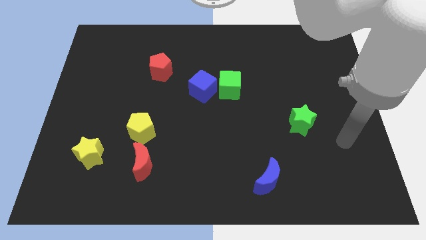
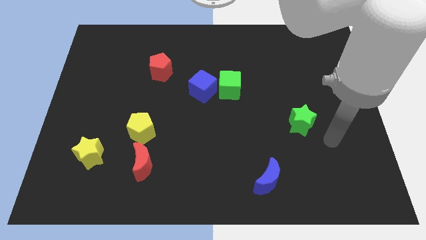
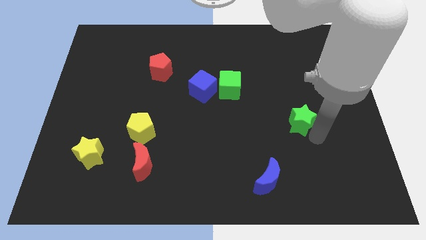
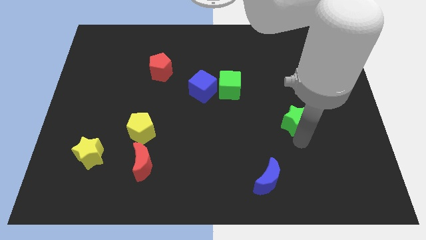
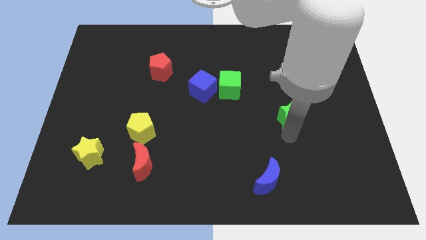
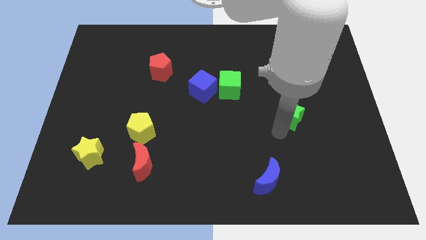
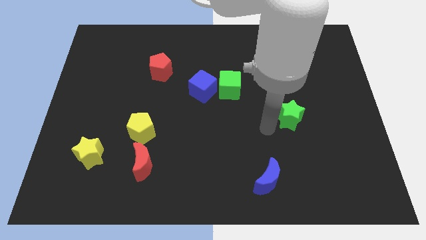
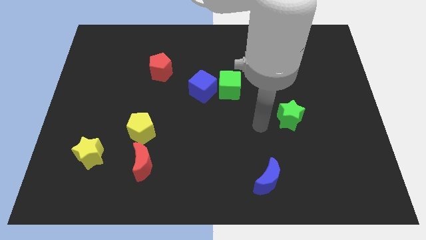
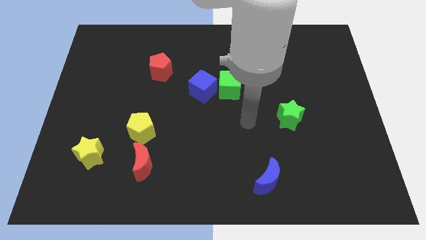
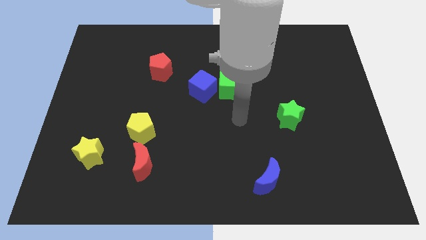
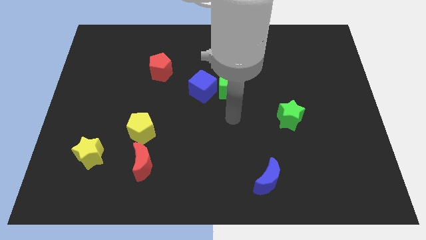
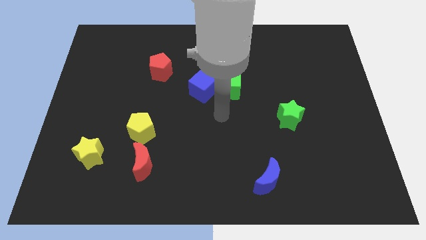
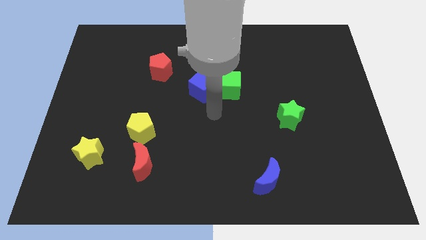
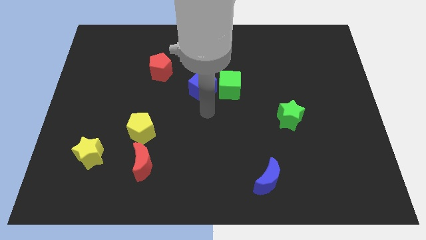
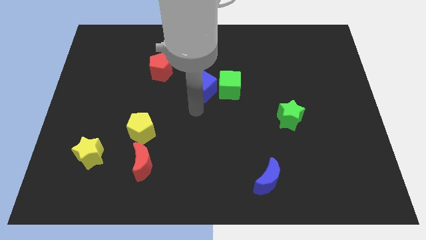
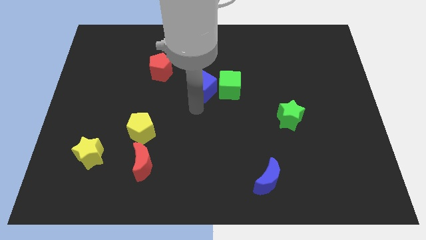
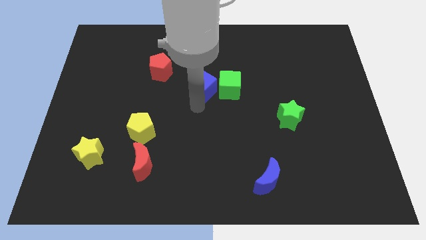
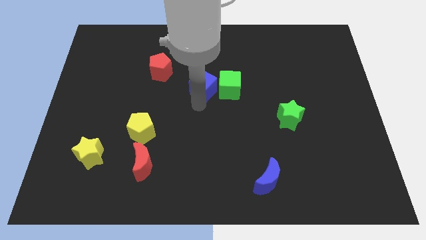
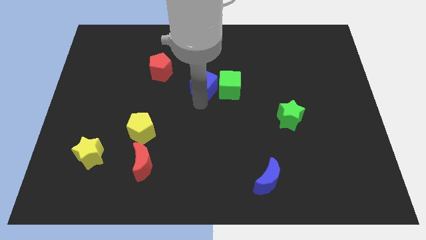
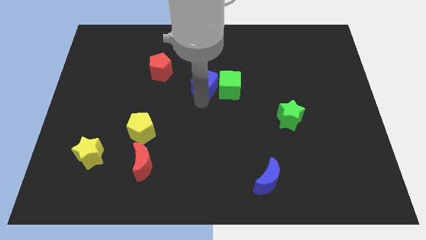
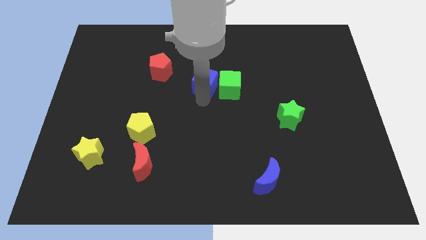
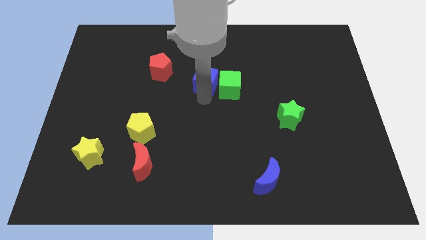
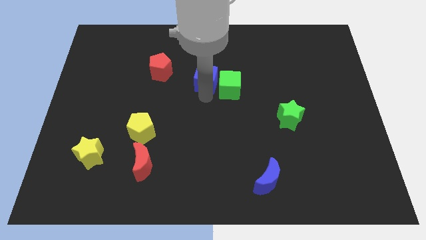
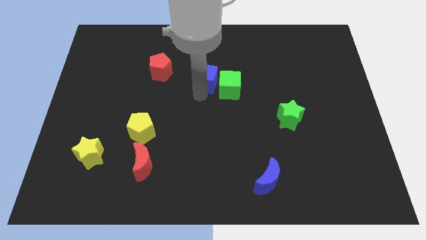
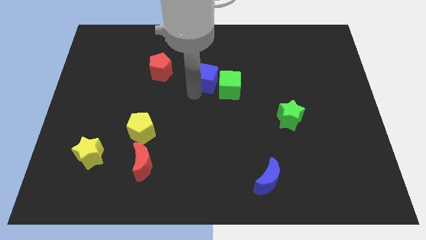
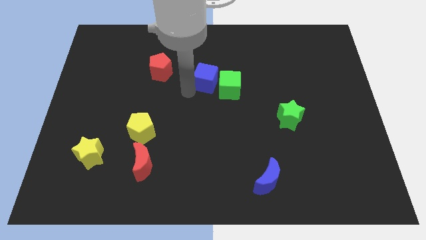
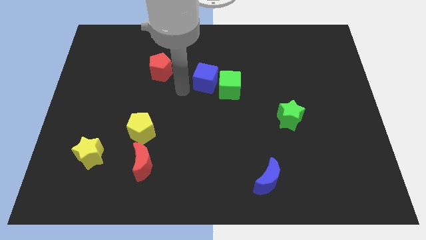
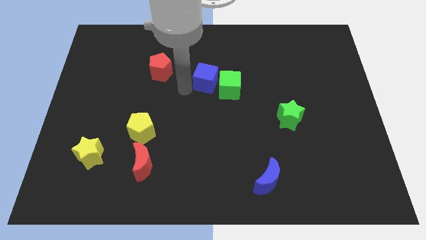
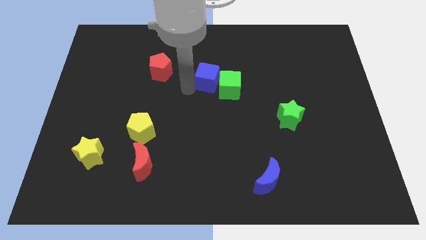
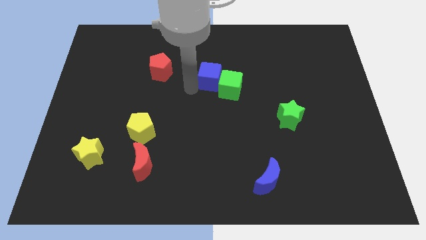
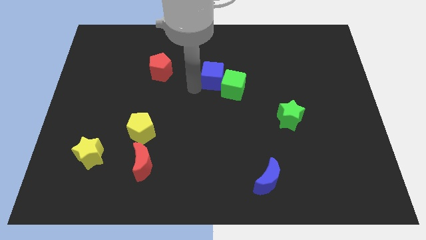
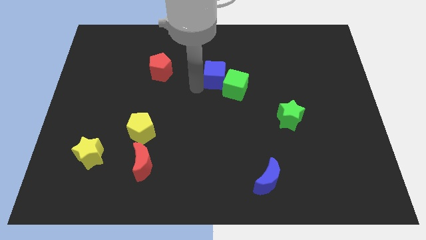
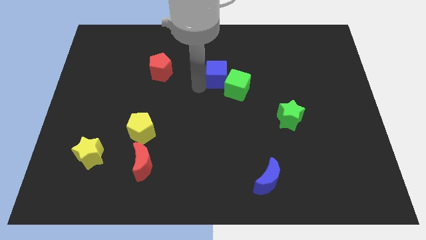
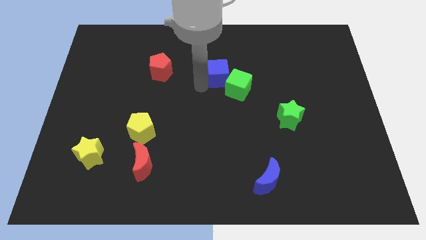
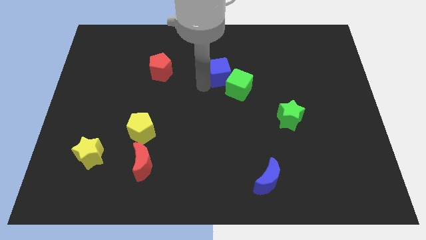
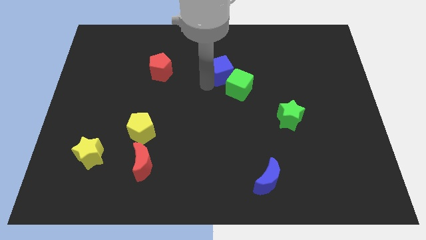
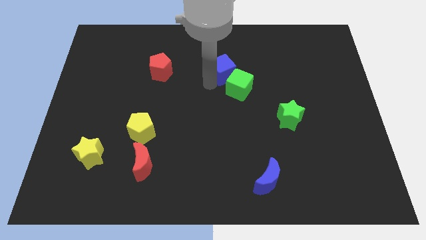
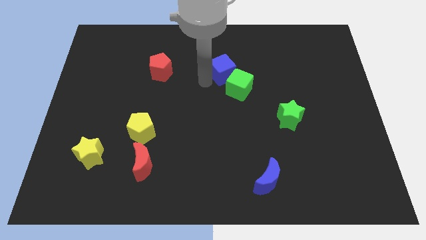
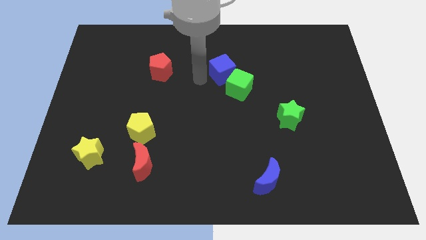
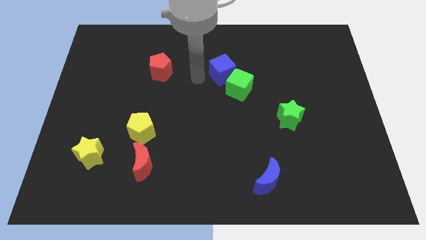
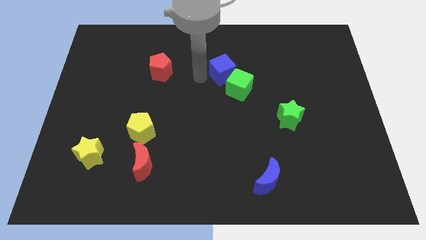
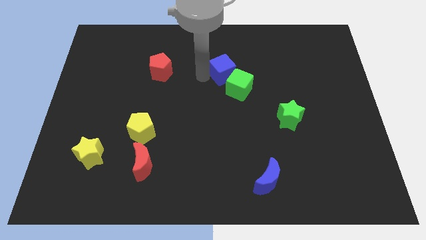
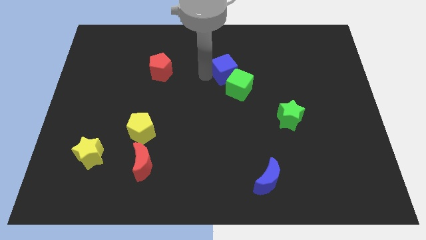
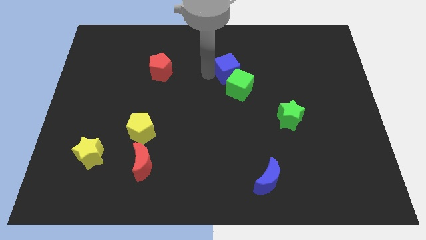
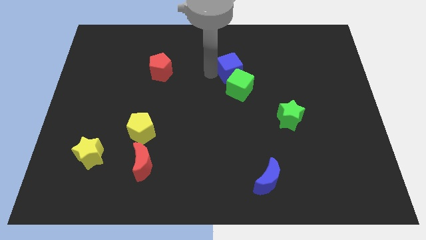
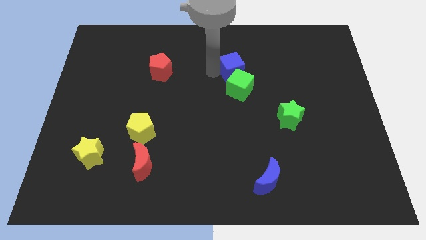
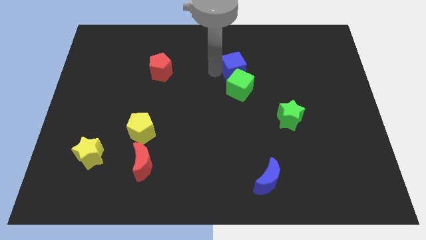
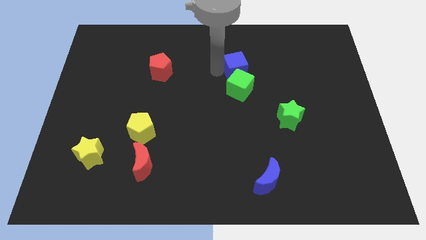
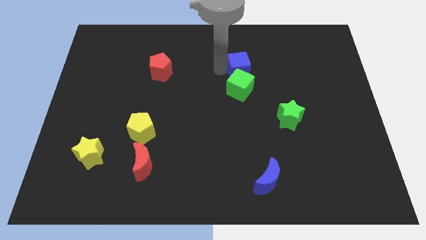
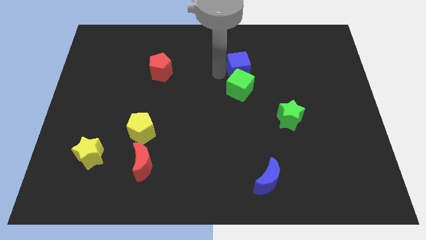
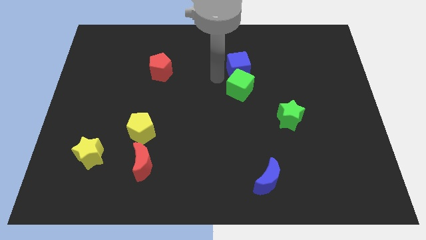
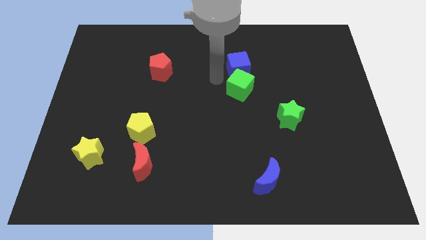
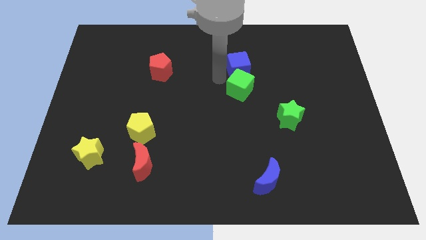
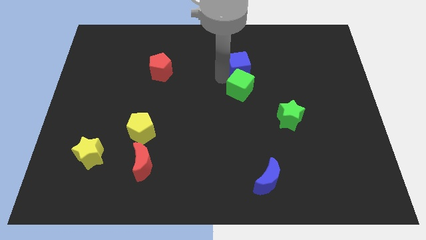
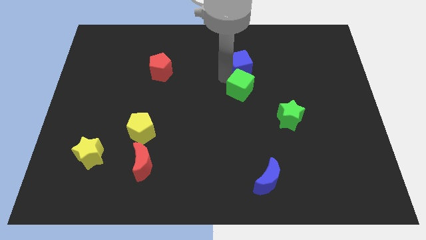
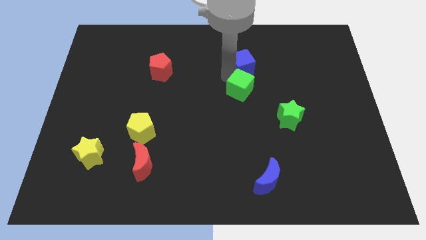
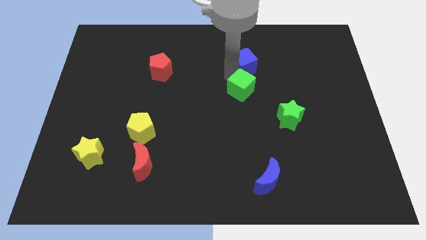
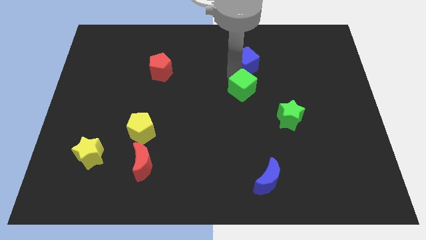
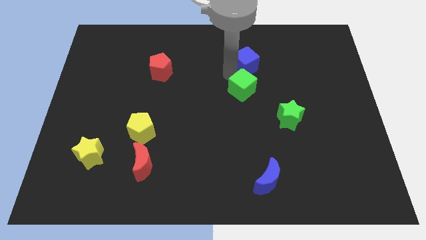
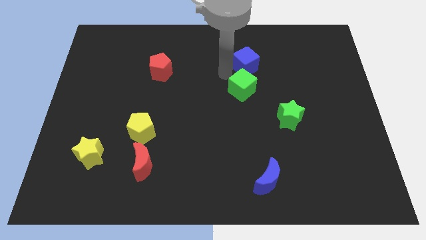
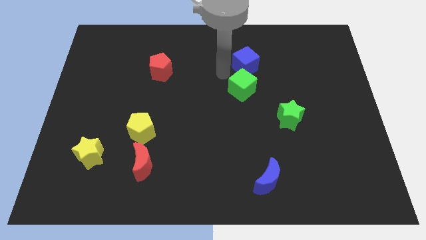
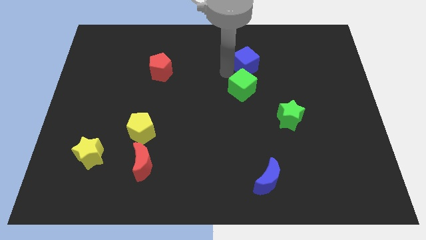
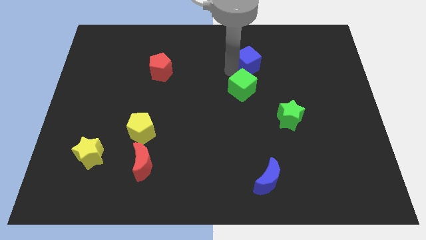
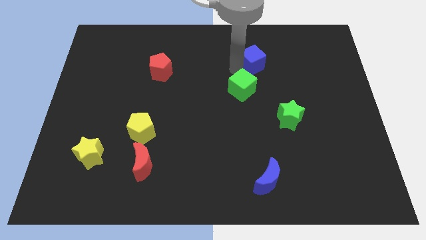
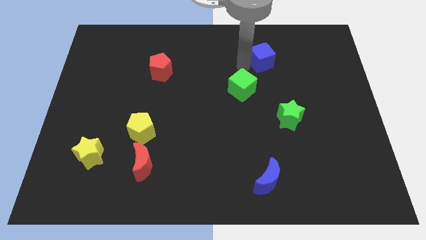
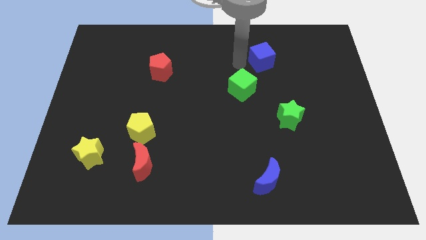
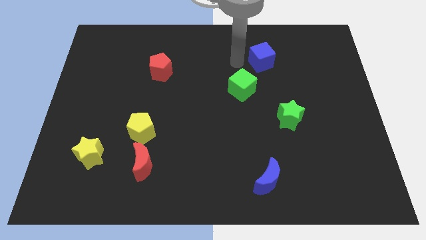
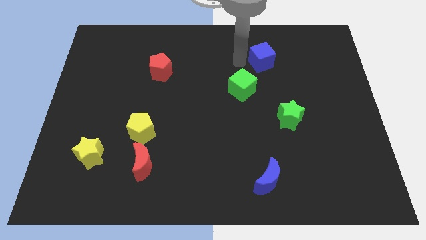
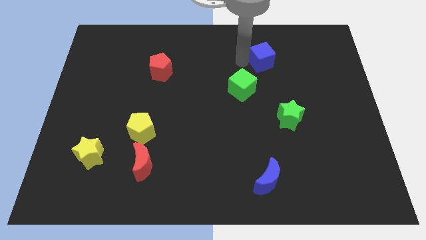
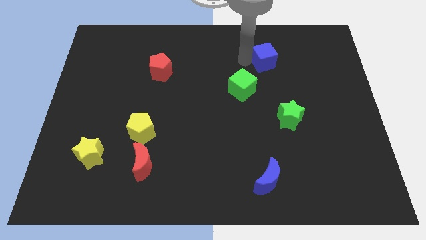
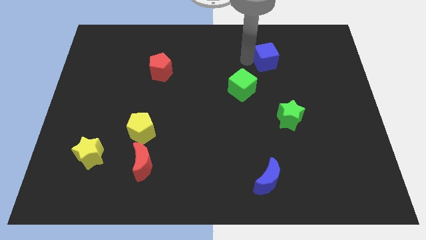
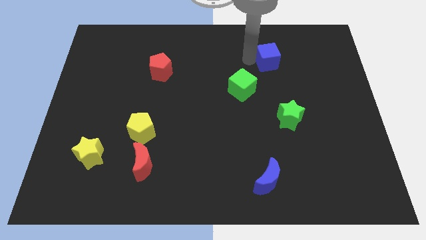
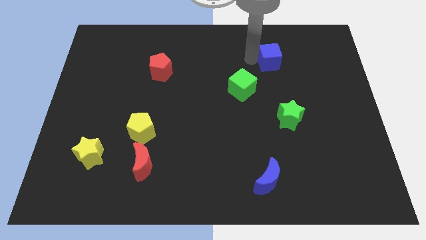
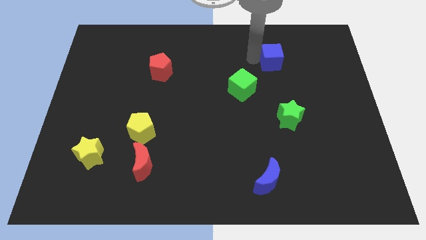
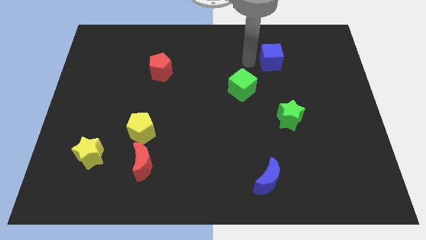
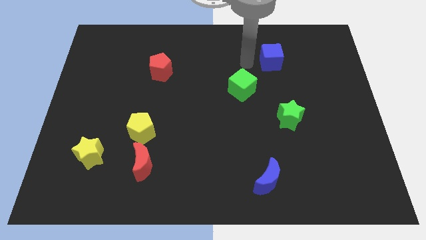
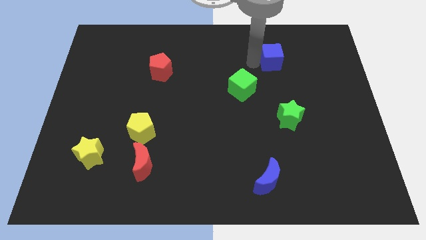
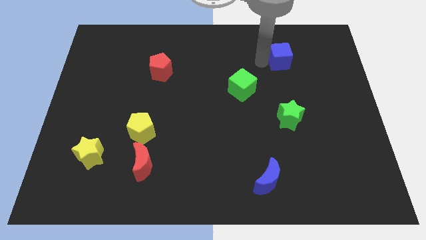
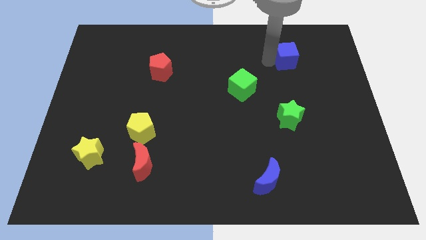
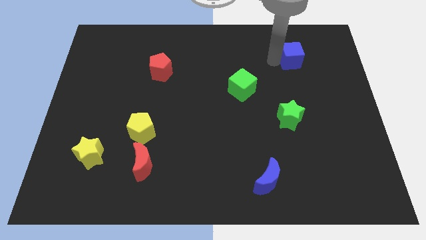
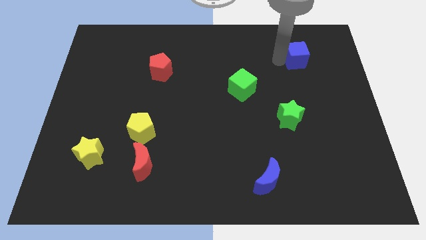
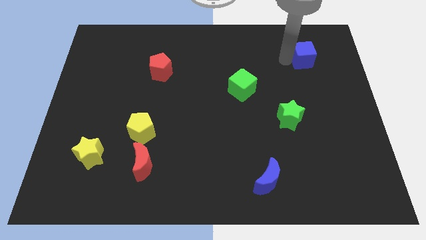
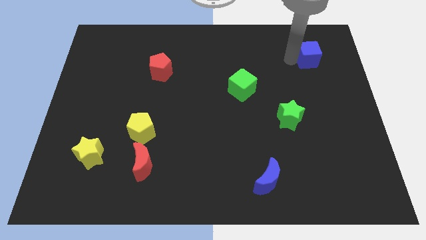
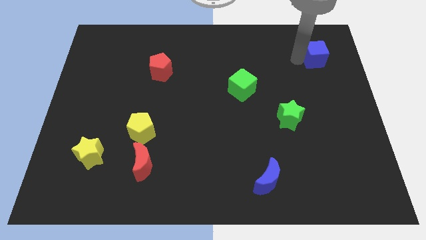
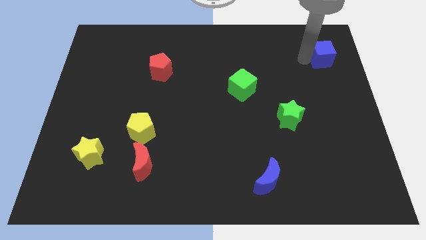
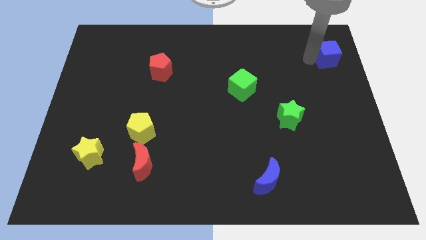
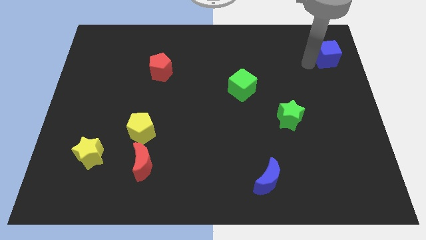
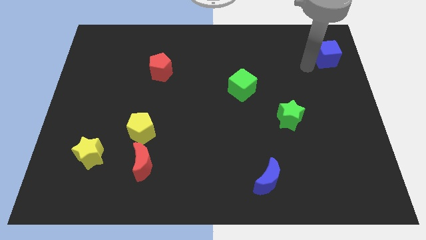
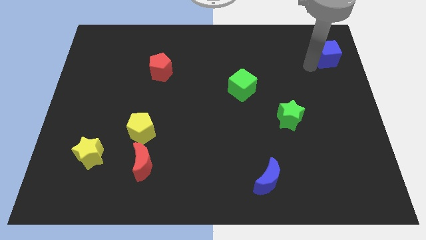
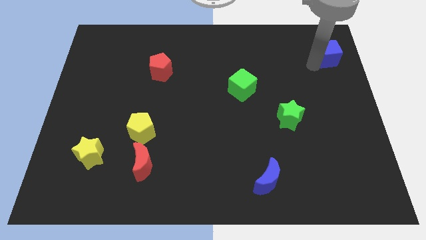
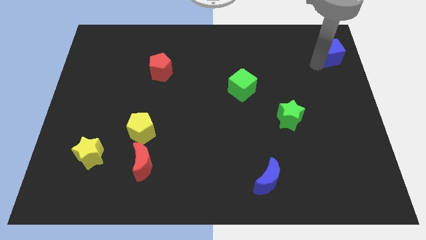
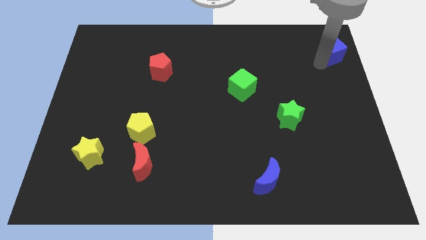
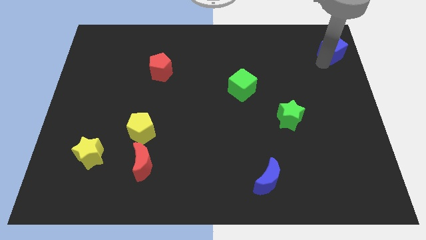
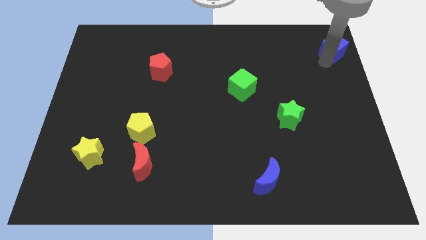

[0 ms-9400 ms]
move the blue cube to the top right corner
